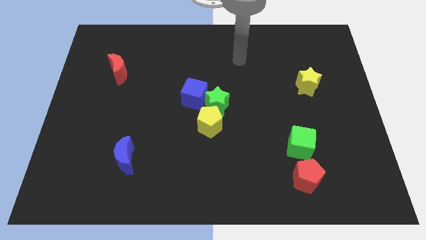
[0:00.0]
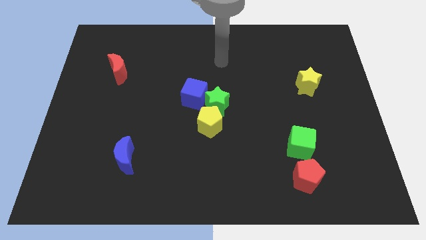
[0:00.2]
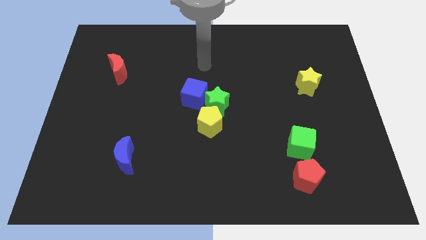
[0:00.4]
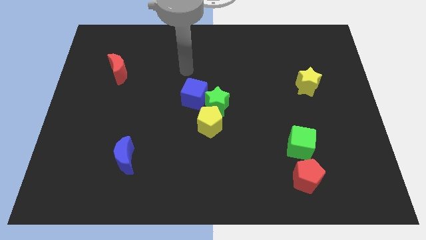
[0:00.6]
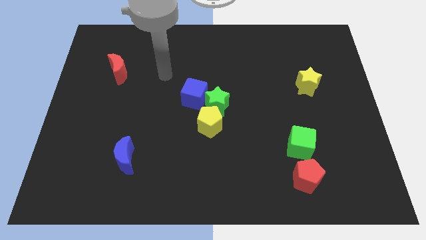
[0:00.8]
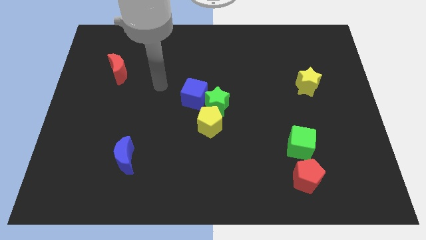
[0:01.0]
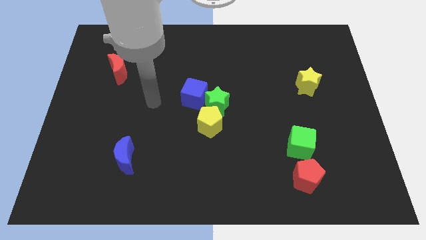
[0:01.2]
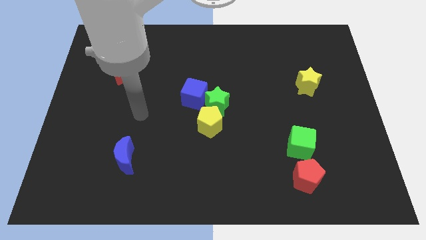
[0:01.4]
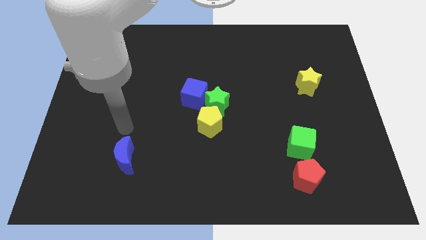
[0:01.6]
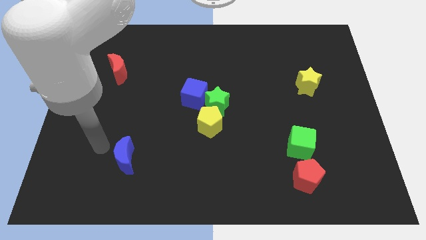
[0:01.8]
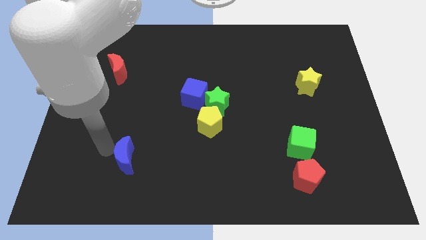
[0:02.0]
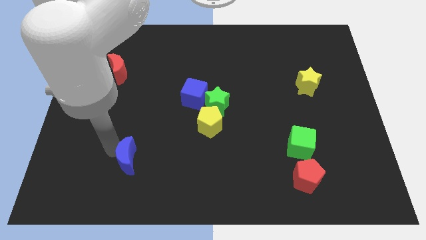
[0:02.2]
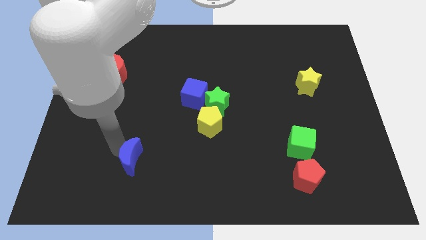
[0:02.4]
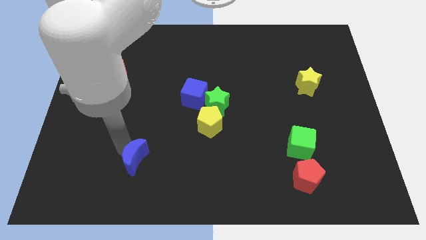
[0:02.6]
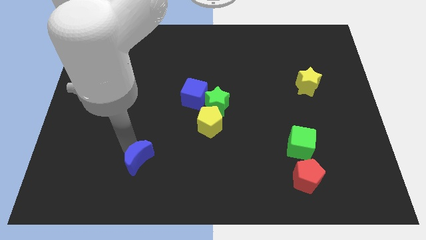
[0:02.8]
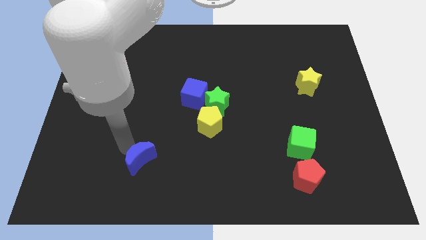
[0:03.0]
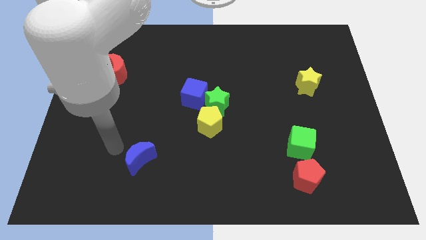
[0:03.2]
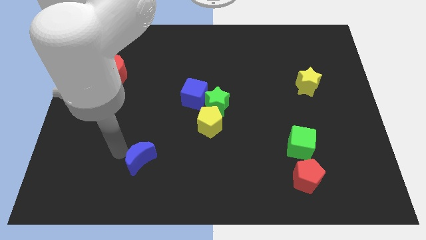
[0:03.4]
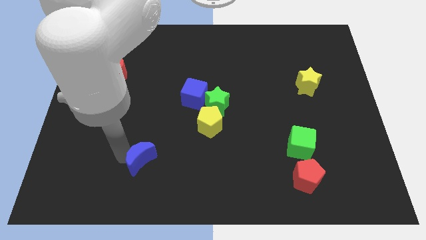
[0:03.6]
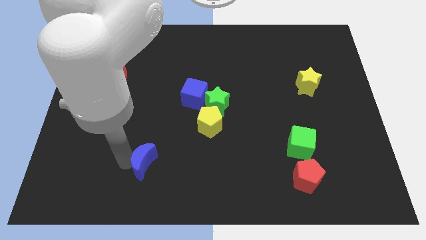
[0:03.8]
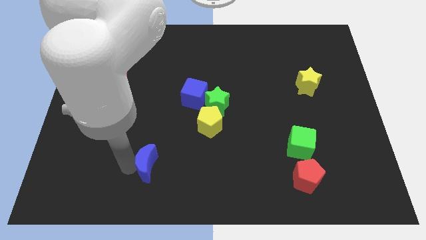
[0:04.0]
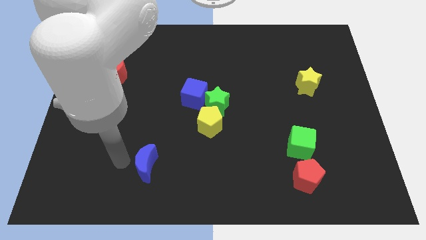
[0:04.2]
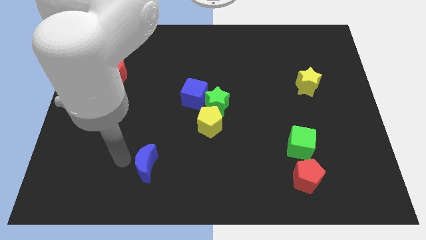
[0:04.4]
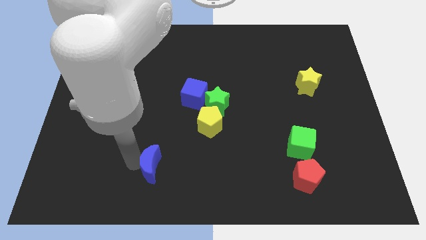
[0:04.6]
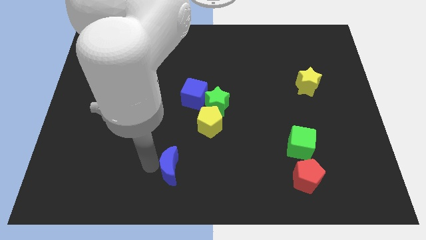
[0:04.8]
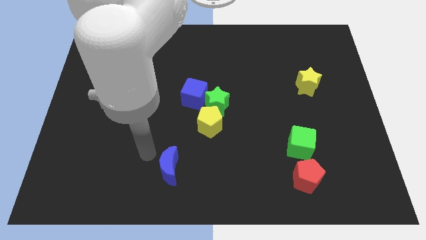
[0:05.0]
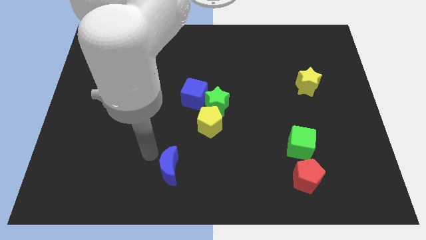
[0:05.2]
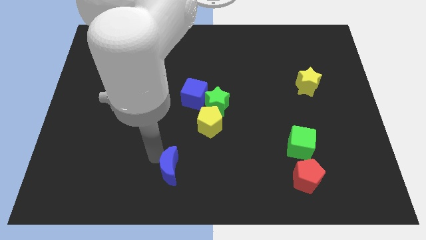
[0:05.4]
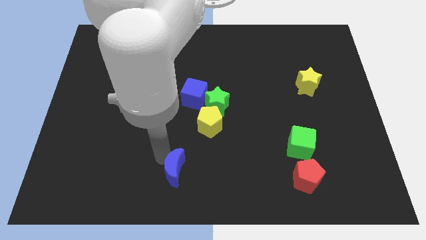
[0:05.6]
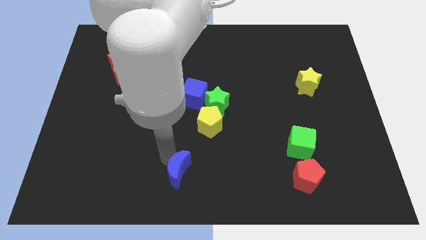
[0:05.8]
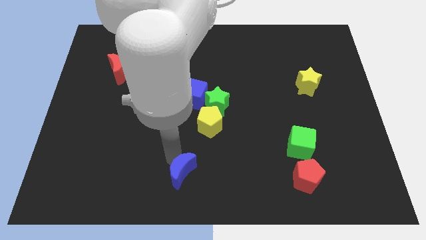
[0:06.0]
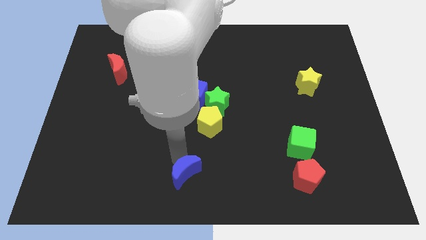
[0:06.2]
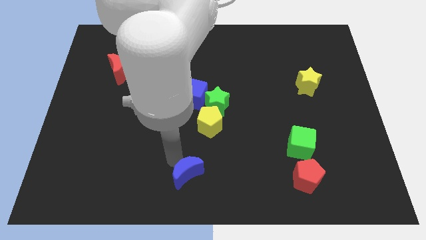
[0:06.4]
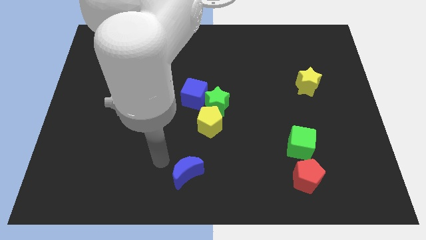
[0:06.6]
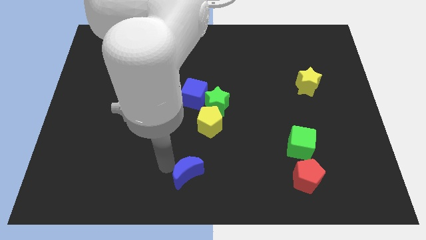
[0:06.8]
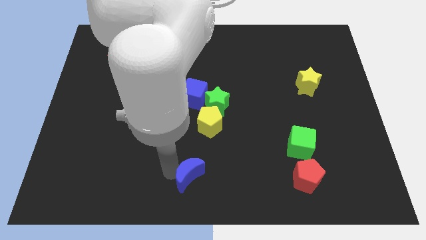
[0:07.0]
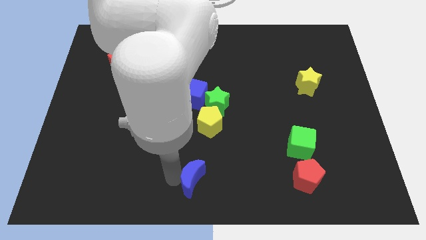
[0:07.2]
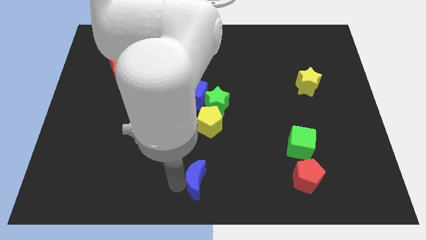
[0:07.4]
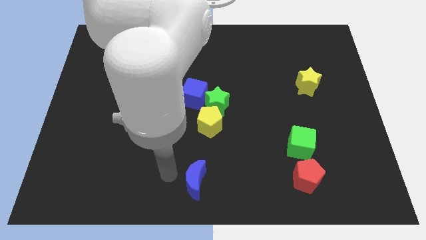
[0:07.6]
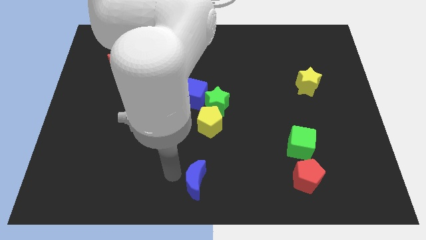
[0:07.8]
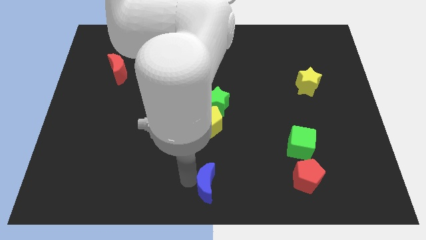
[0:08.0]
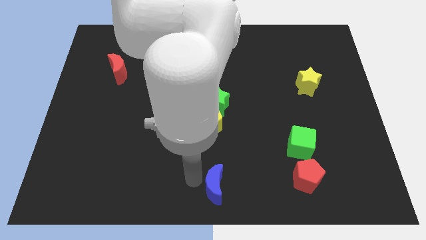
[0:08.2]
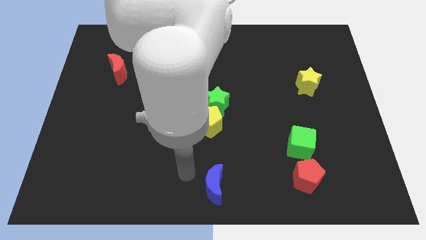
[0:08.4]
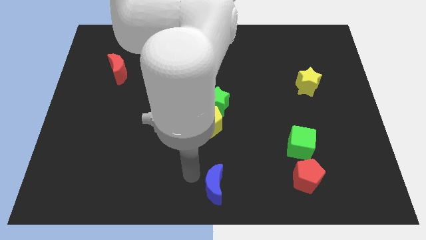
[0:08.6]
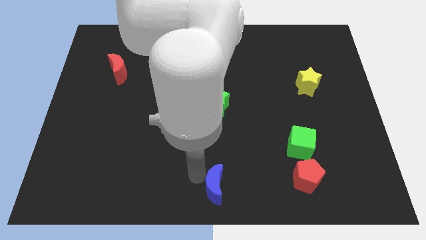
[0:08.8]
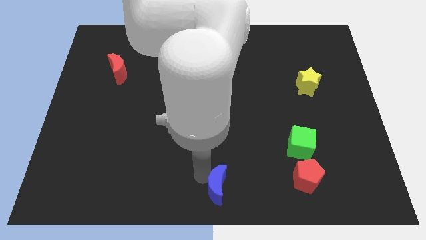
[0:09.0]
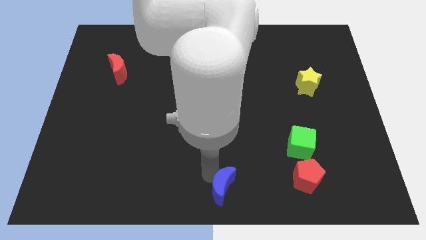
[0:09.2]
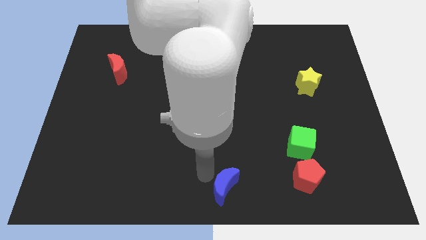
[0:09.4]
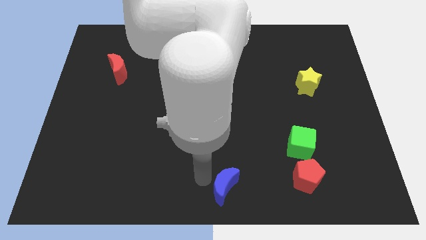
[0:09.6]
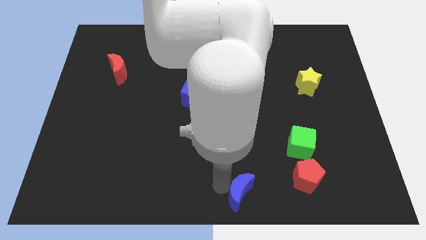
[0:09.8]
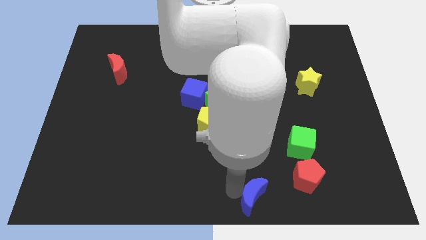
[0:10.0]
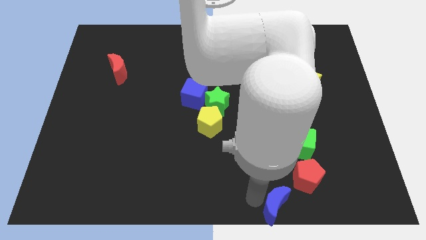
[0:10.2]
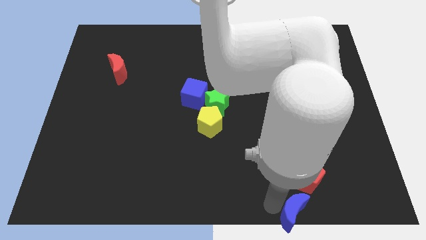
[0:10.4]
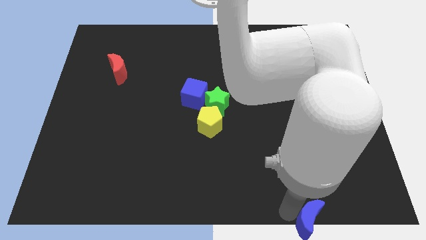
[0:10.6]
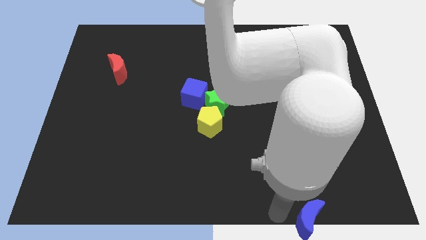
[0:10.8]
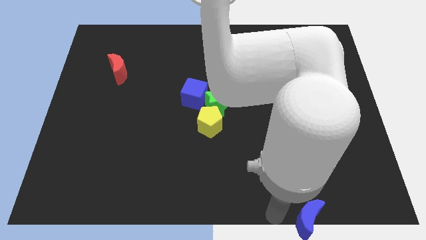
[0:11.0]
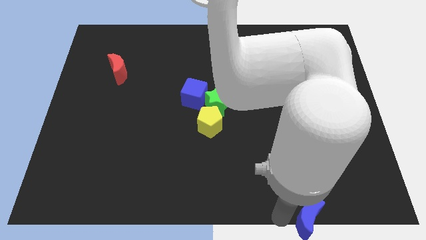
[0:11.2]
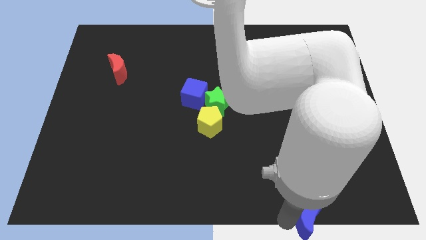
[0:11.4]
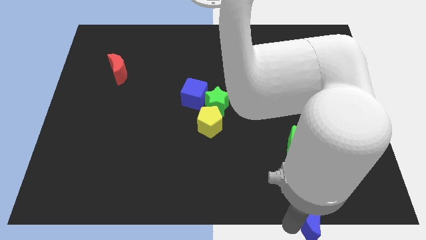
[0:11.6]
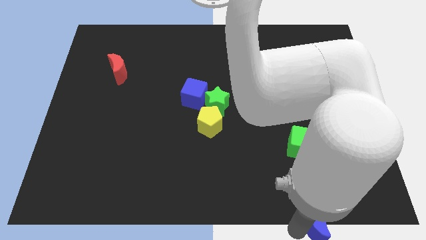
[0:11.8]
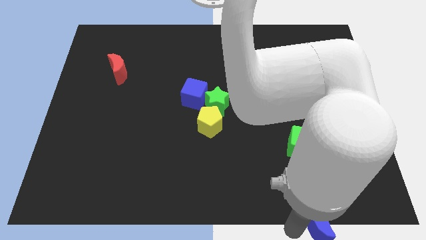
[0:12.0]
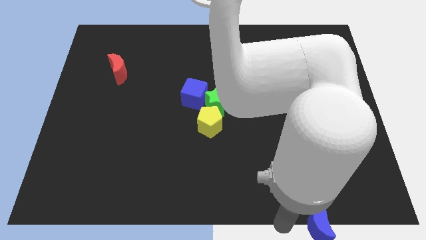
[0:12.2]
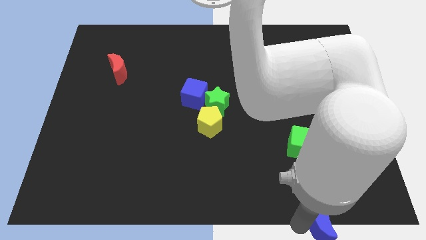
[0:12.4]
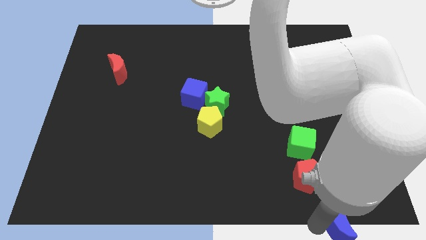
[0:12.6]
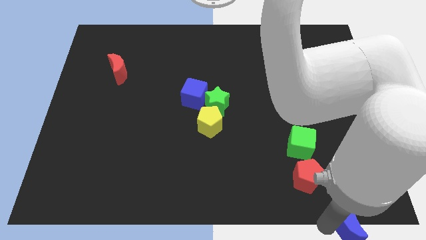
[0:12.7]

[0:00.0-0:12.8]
push the blue moon to the bottom right of the board
